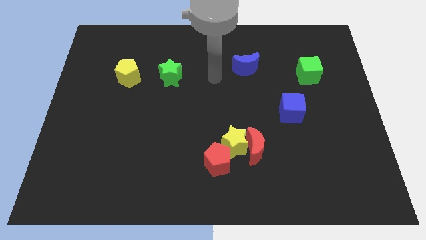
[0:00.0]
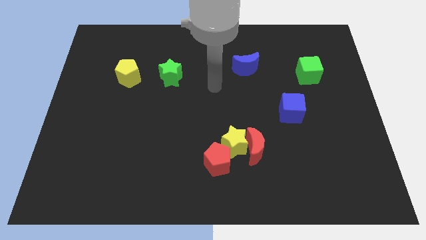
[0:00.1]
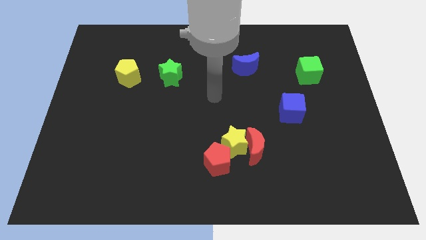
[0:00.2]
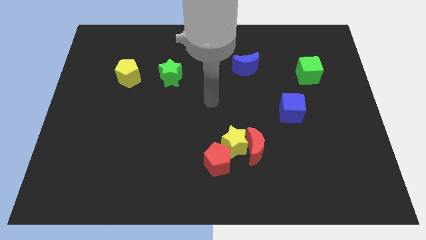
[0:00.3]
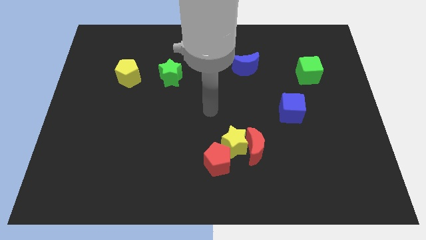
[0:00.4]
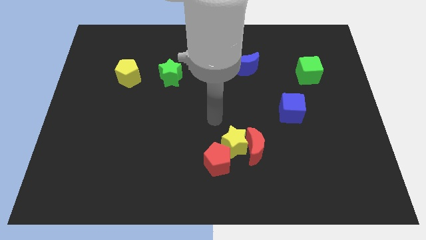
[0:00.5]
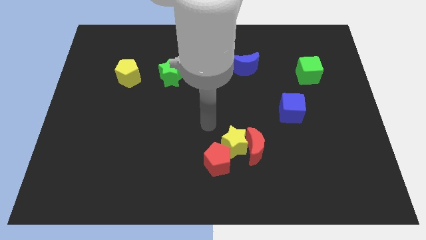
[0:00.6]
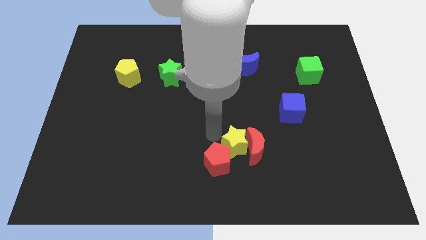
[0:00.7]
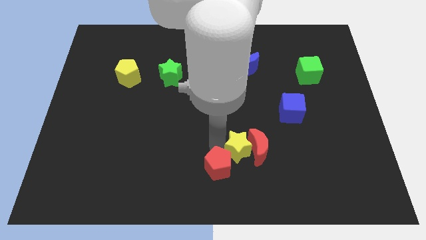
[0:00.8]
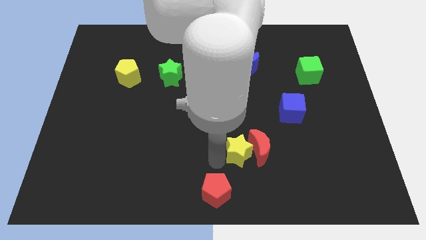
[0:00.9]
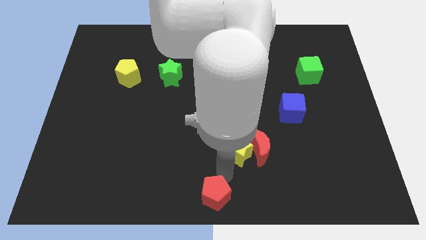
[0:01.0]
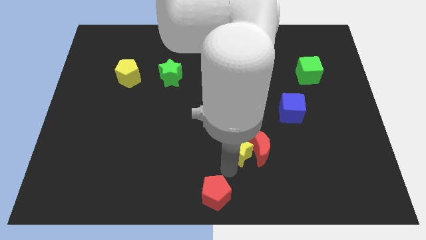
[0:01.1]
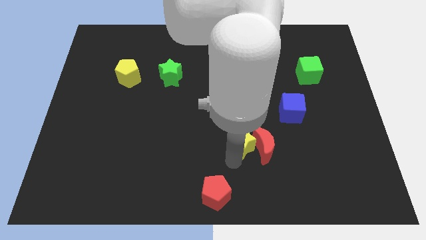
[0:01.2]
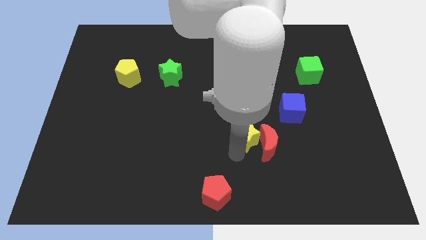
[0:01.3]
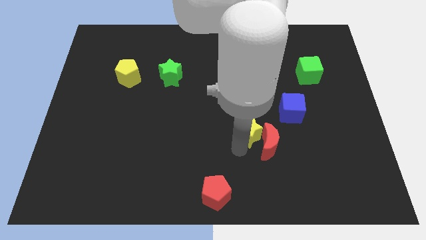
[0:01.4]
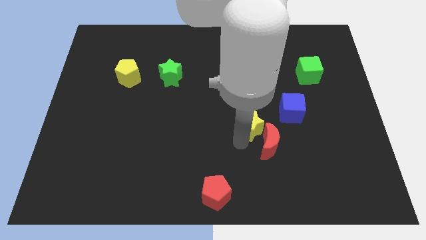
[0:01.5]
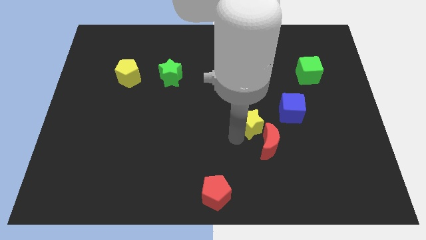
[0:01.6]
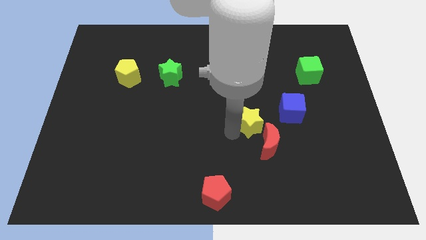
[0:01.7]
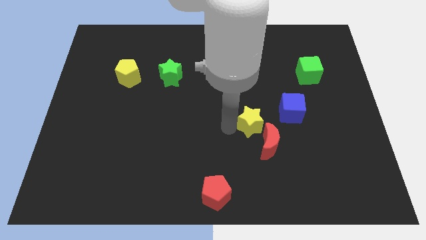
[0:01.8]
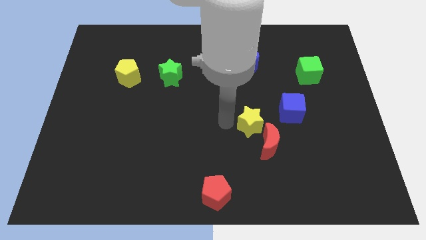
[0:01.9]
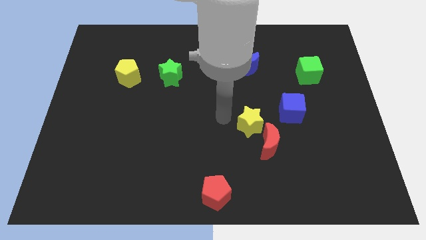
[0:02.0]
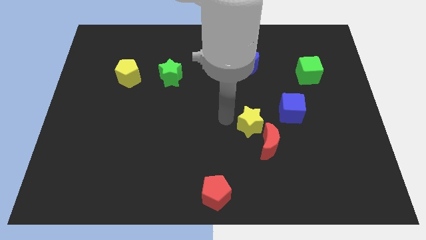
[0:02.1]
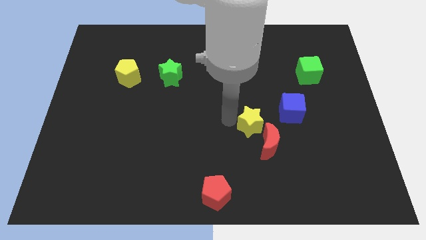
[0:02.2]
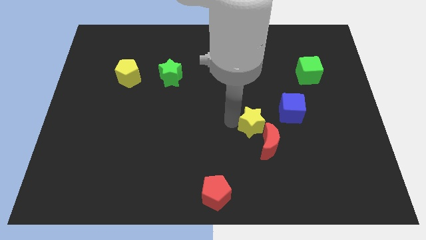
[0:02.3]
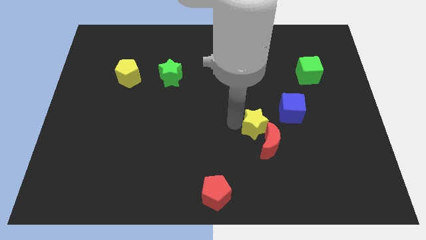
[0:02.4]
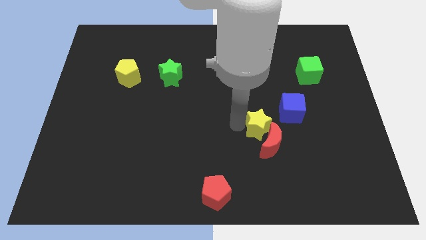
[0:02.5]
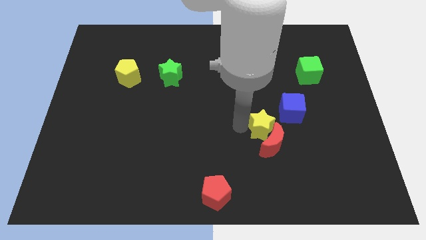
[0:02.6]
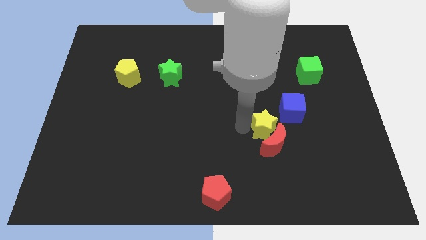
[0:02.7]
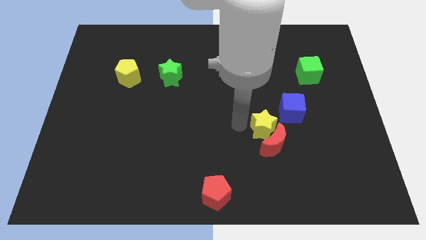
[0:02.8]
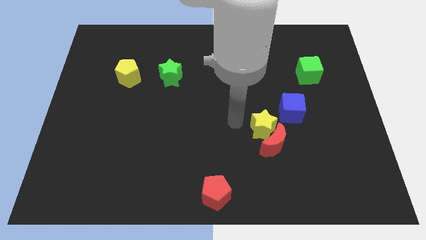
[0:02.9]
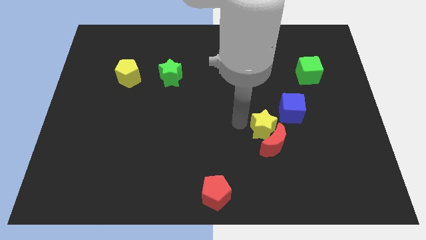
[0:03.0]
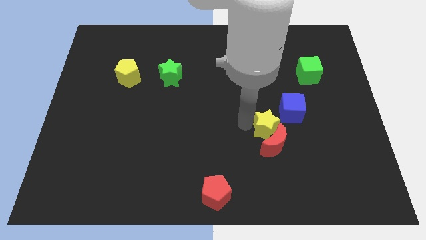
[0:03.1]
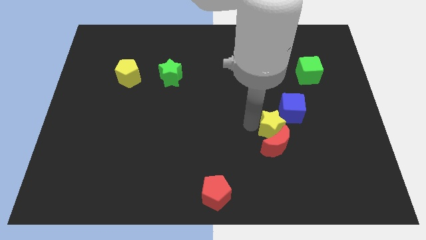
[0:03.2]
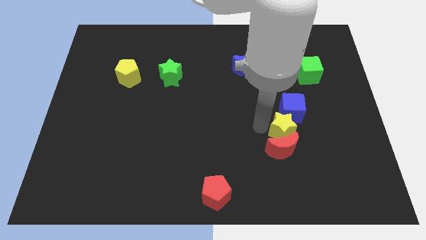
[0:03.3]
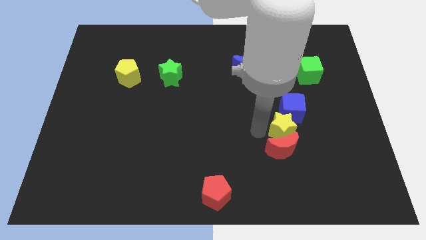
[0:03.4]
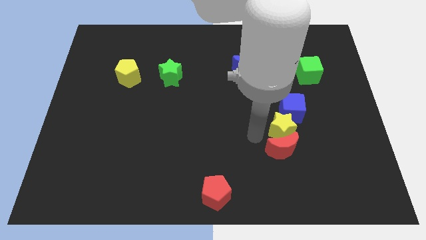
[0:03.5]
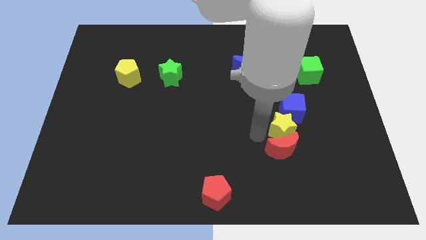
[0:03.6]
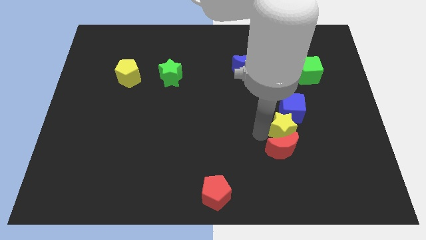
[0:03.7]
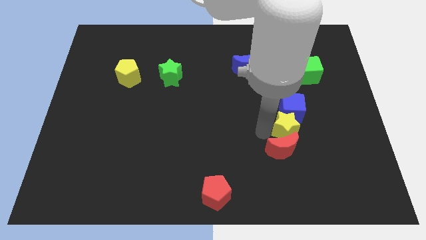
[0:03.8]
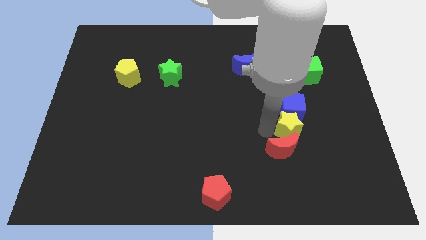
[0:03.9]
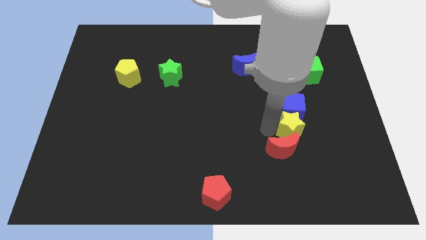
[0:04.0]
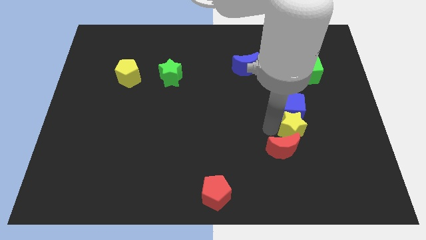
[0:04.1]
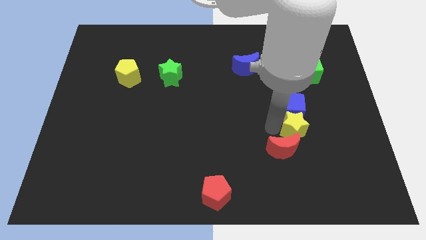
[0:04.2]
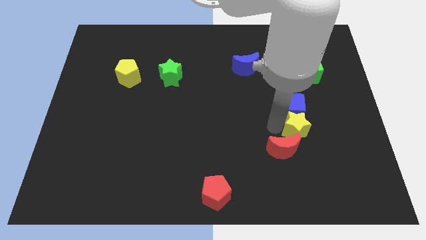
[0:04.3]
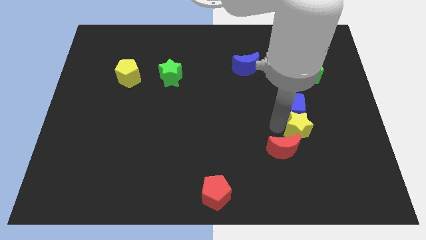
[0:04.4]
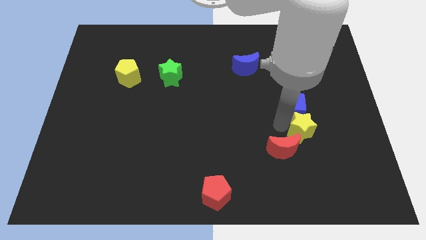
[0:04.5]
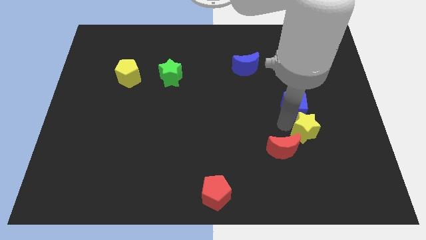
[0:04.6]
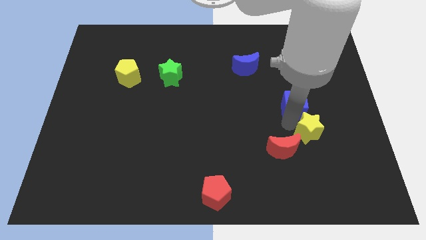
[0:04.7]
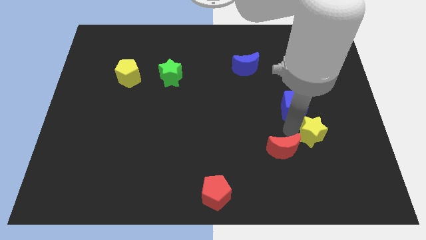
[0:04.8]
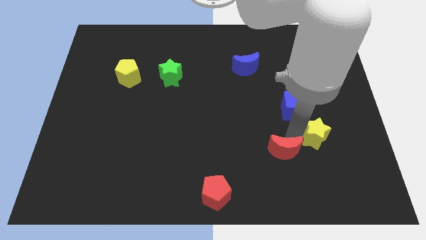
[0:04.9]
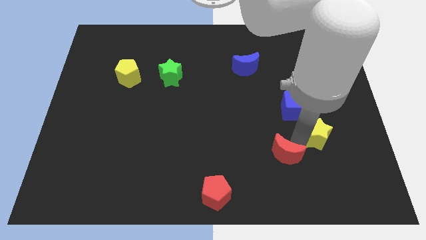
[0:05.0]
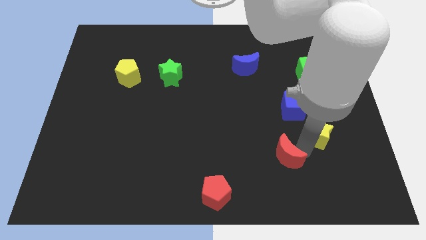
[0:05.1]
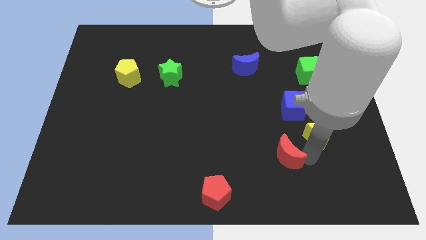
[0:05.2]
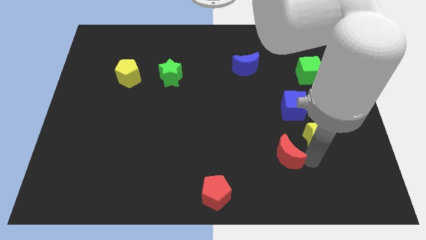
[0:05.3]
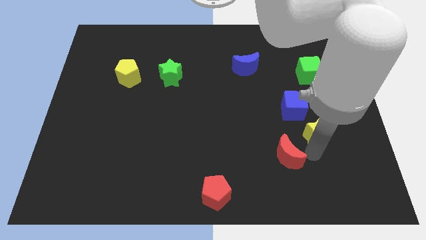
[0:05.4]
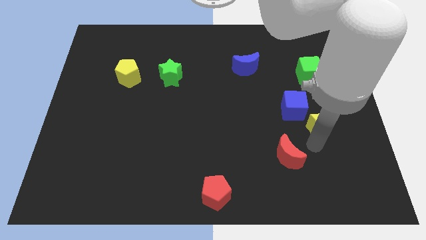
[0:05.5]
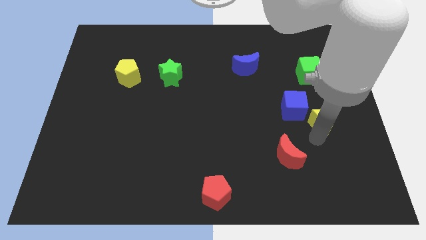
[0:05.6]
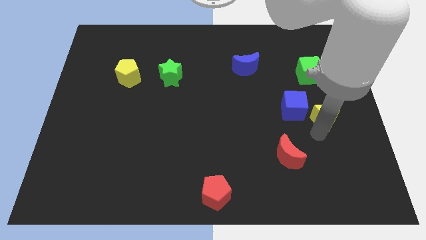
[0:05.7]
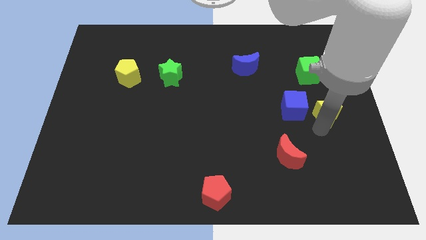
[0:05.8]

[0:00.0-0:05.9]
push the yellow star to the center right
